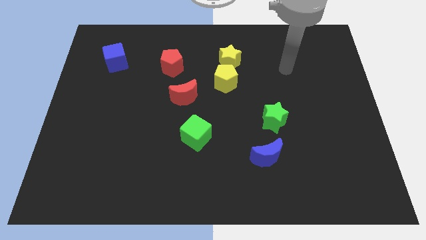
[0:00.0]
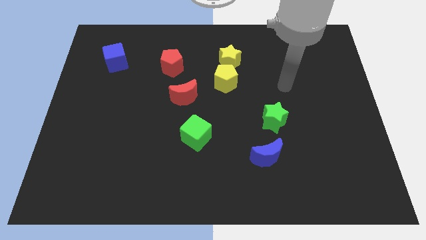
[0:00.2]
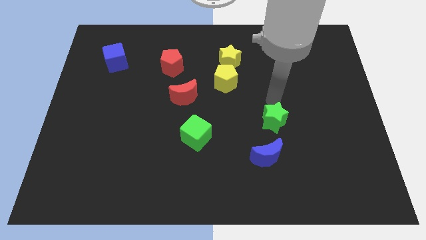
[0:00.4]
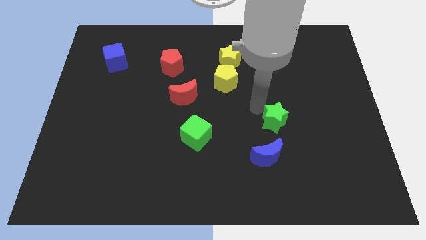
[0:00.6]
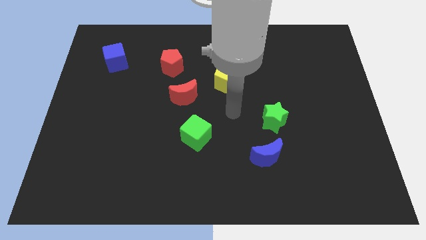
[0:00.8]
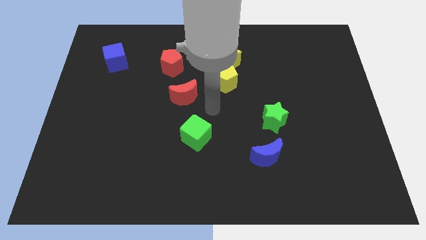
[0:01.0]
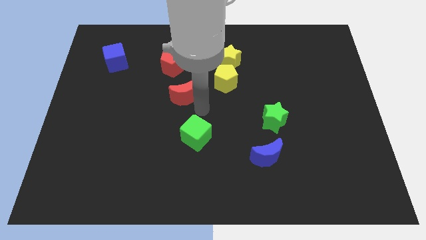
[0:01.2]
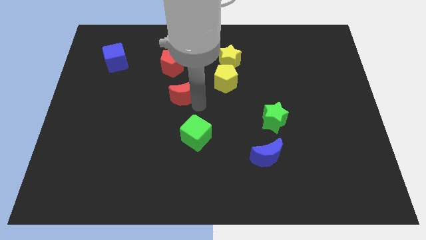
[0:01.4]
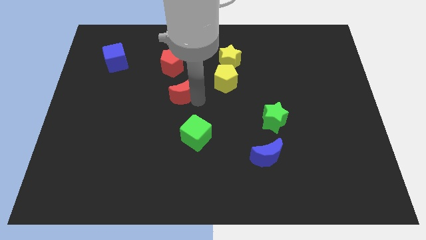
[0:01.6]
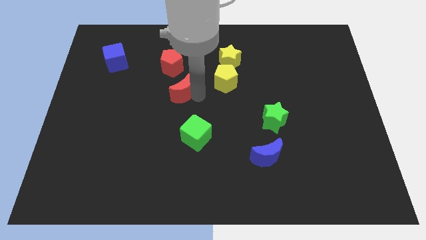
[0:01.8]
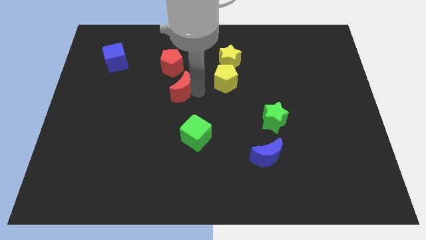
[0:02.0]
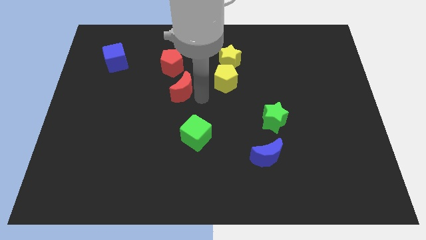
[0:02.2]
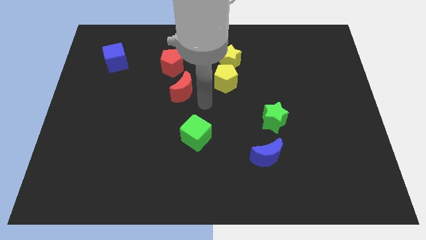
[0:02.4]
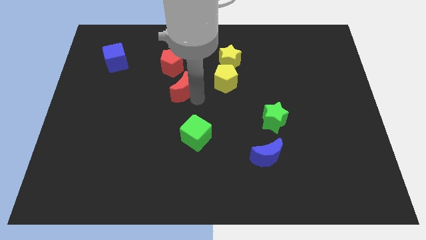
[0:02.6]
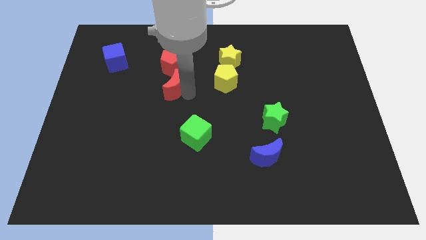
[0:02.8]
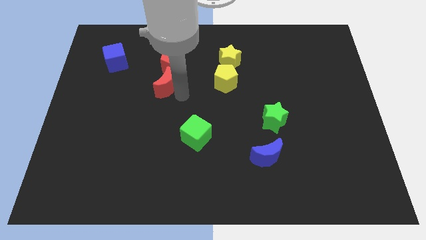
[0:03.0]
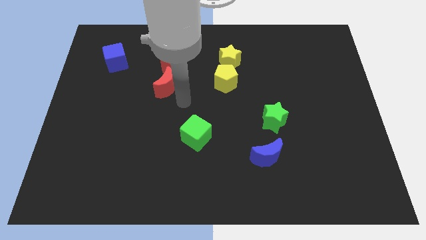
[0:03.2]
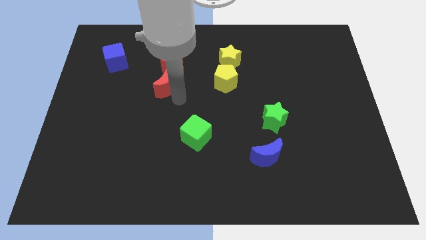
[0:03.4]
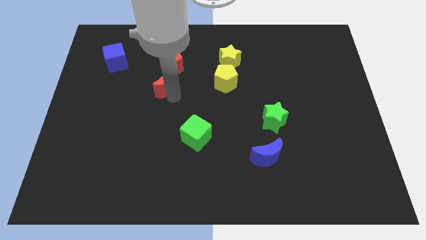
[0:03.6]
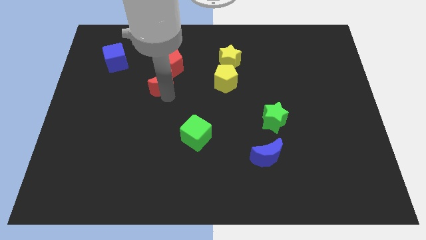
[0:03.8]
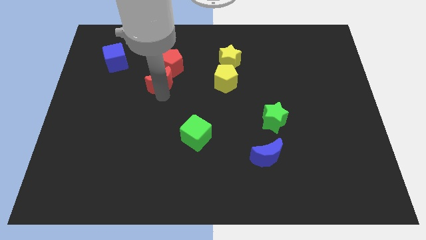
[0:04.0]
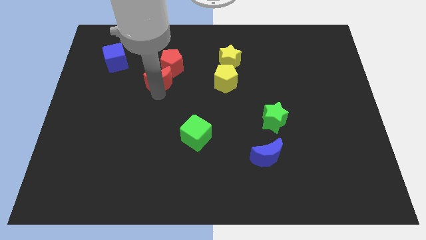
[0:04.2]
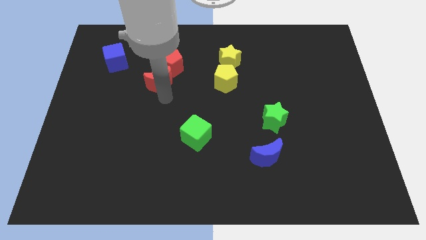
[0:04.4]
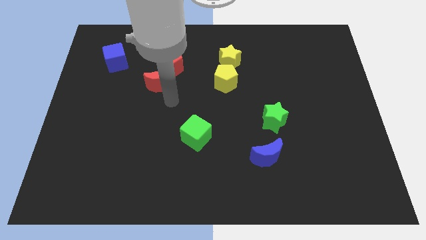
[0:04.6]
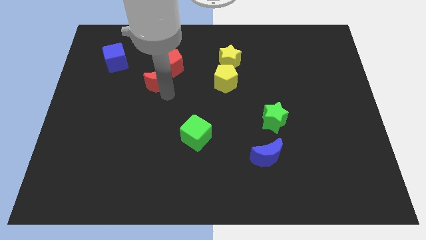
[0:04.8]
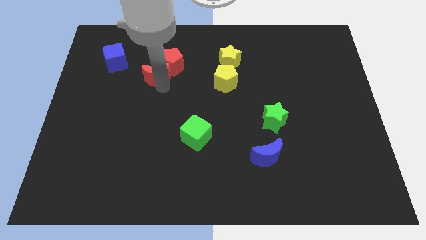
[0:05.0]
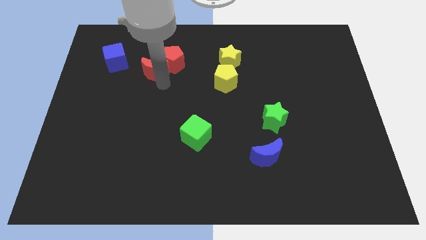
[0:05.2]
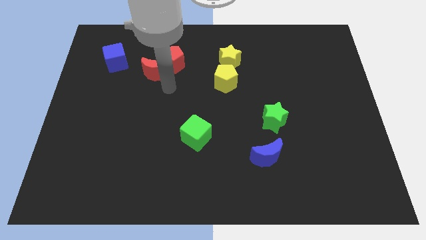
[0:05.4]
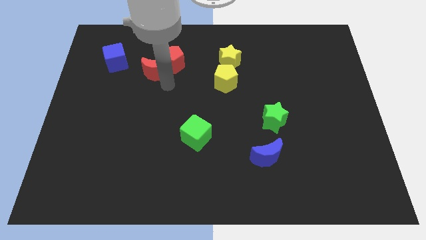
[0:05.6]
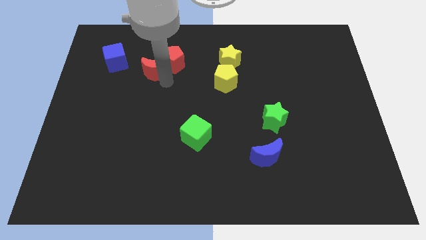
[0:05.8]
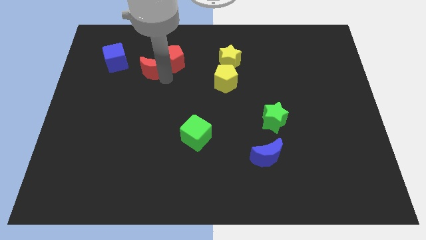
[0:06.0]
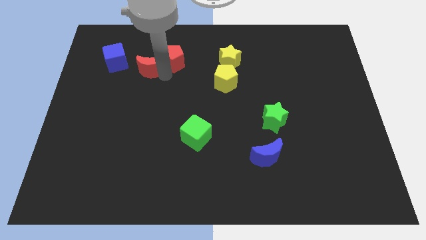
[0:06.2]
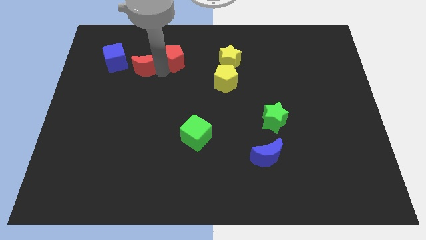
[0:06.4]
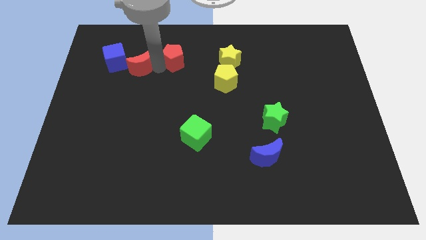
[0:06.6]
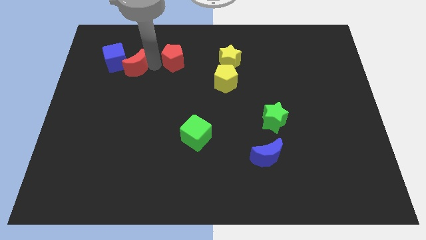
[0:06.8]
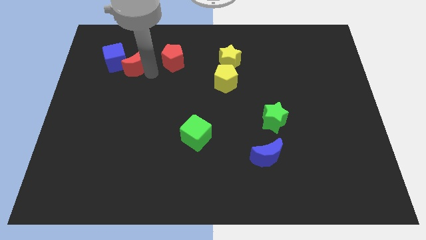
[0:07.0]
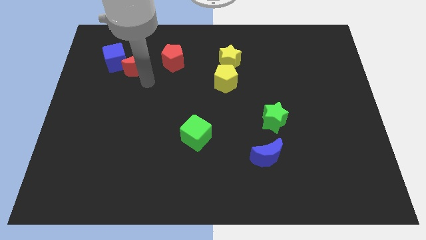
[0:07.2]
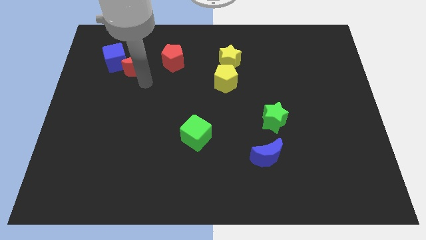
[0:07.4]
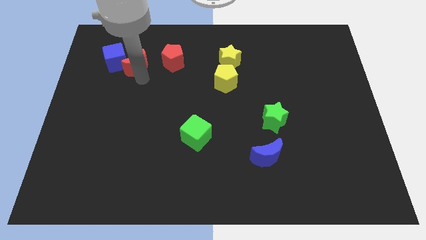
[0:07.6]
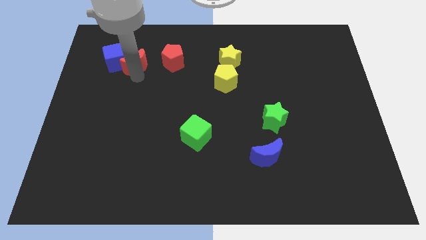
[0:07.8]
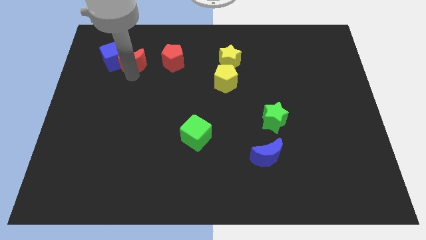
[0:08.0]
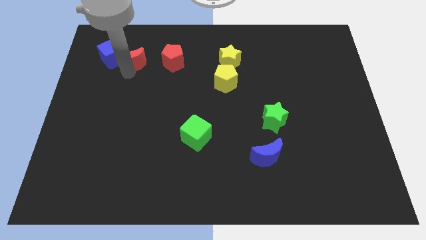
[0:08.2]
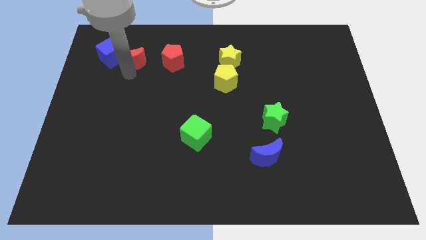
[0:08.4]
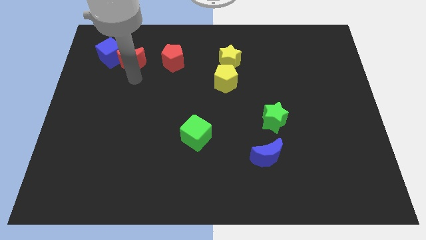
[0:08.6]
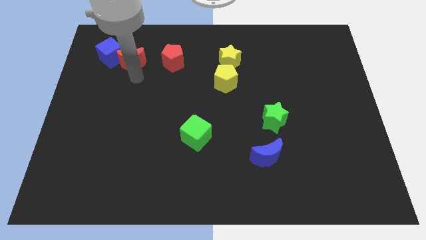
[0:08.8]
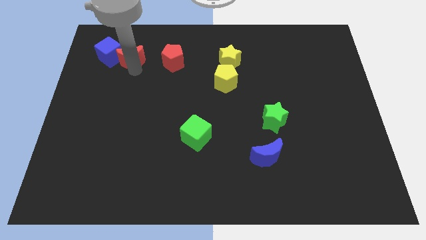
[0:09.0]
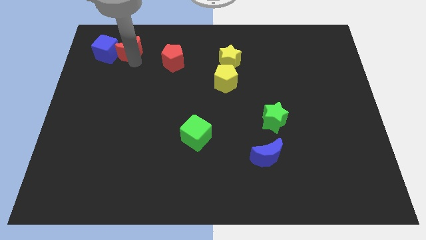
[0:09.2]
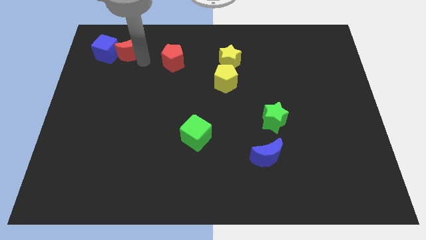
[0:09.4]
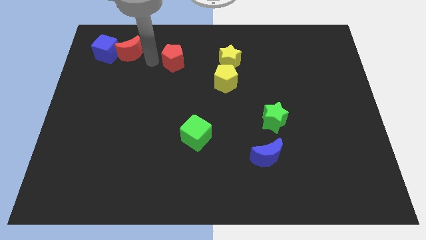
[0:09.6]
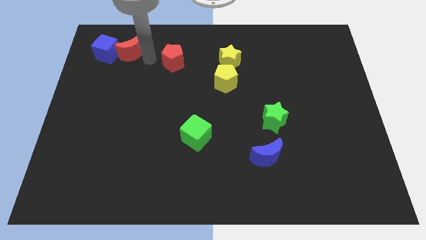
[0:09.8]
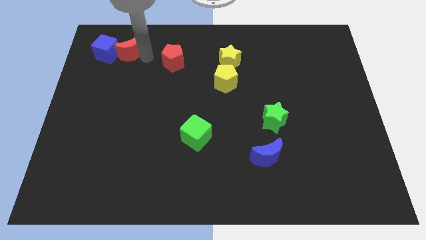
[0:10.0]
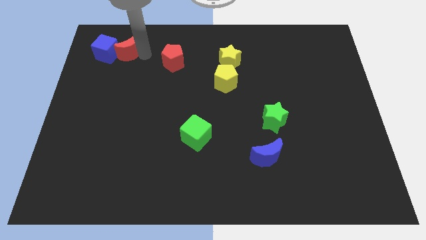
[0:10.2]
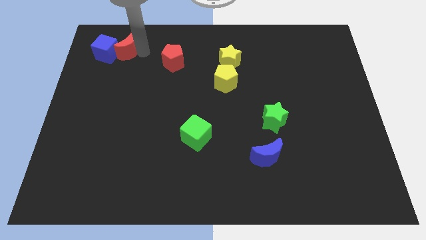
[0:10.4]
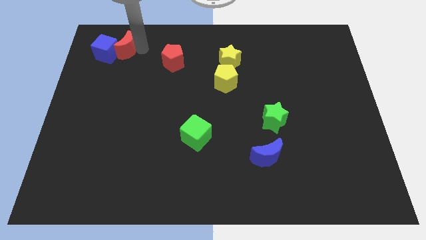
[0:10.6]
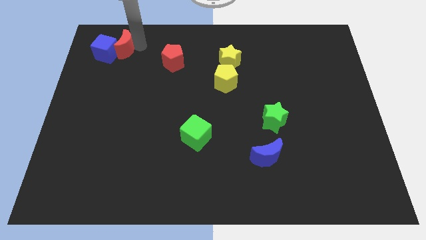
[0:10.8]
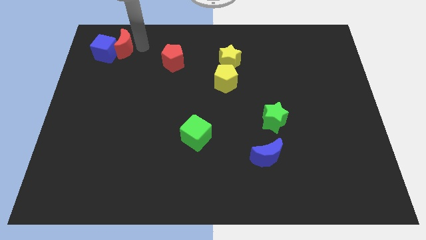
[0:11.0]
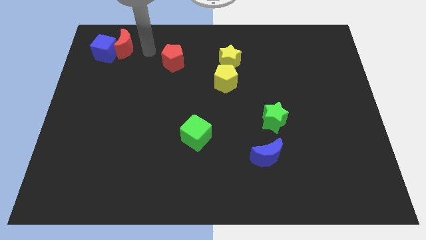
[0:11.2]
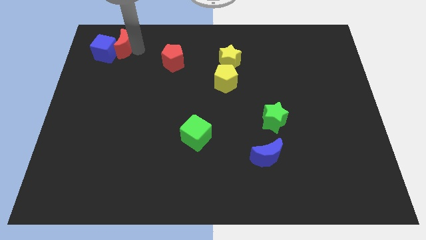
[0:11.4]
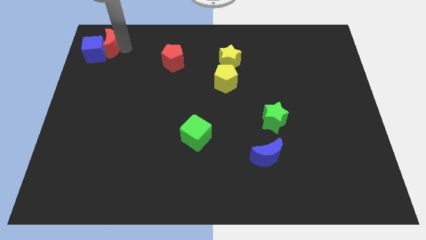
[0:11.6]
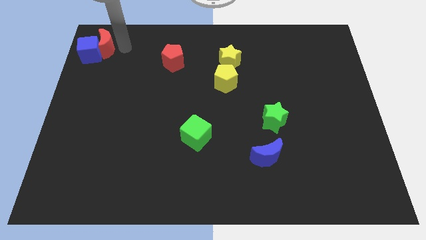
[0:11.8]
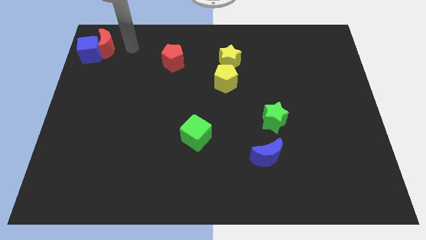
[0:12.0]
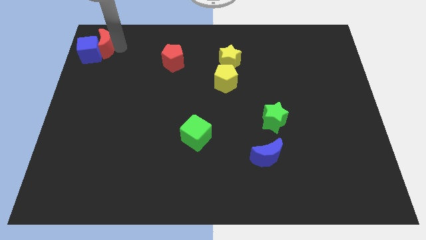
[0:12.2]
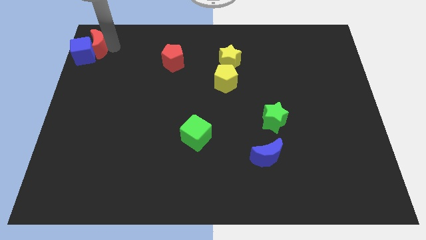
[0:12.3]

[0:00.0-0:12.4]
slide the red moon to the top left of the board

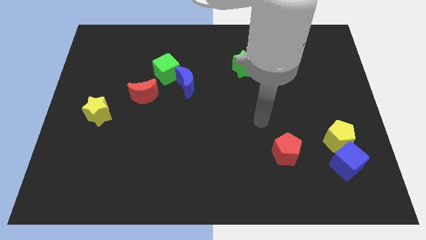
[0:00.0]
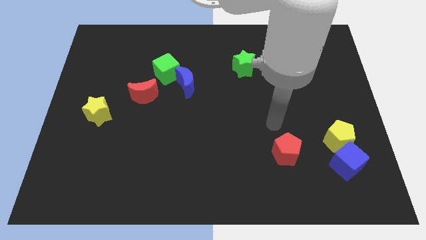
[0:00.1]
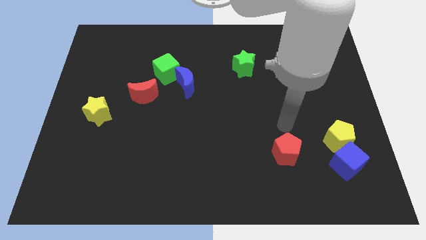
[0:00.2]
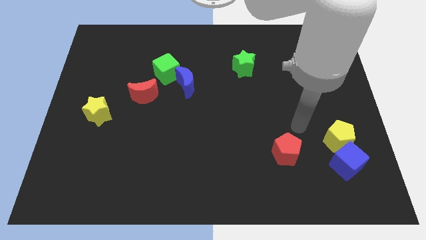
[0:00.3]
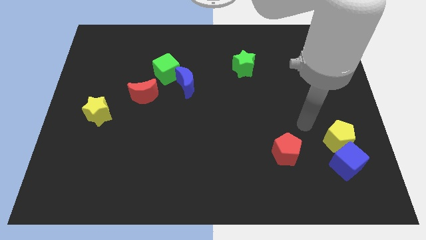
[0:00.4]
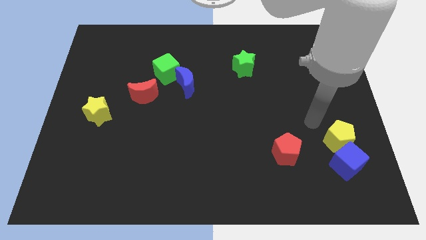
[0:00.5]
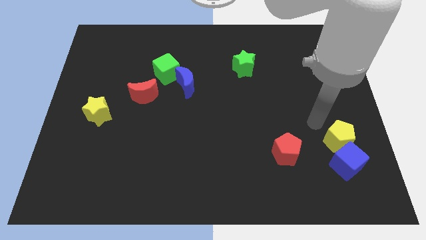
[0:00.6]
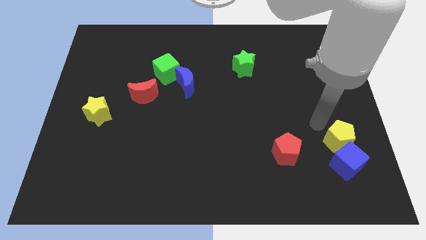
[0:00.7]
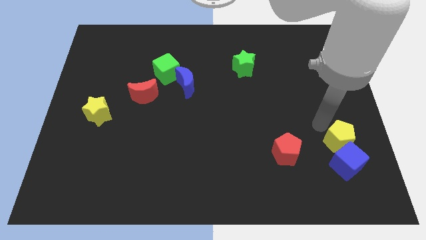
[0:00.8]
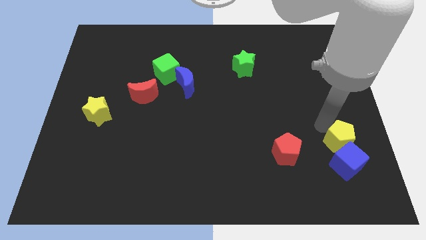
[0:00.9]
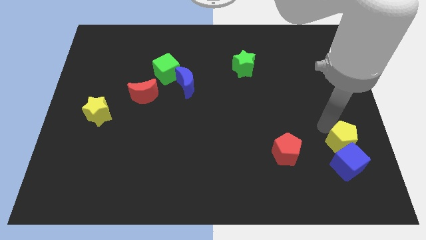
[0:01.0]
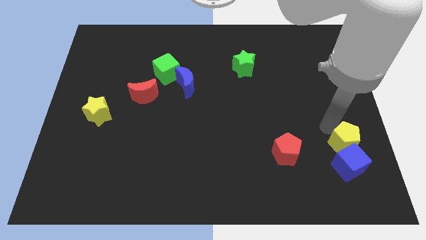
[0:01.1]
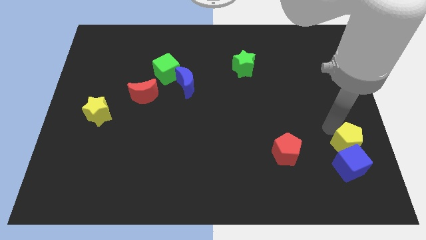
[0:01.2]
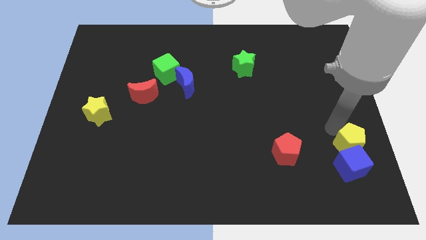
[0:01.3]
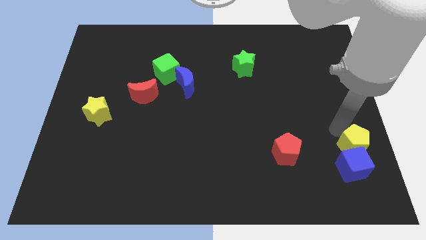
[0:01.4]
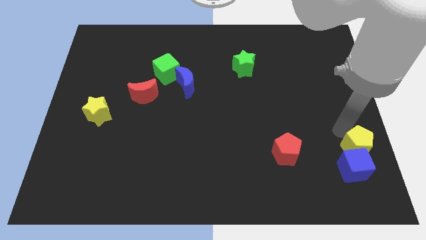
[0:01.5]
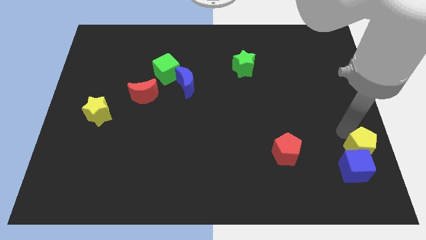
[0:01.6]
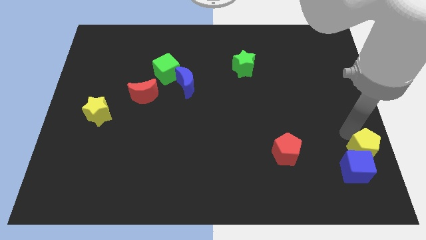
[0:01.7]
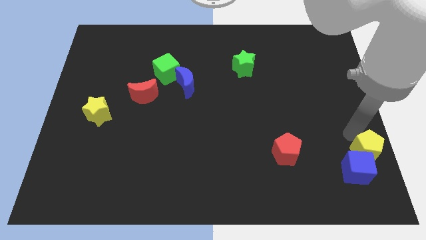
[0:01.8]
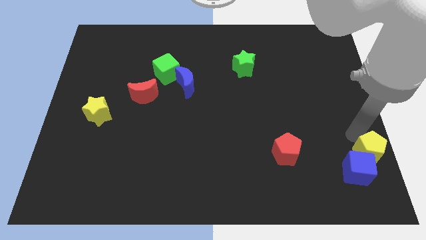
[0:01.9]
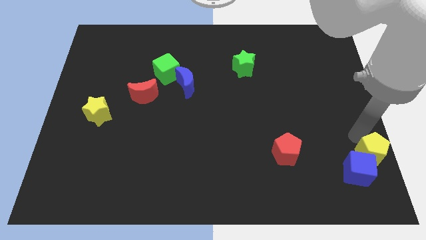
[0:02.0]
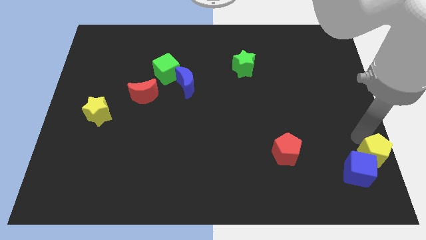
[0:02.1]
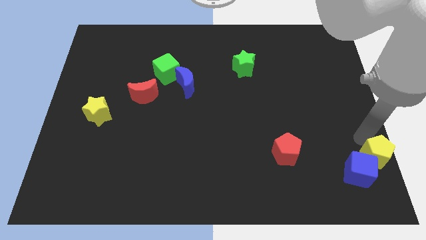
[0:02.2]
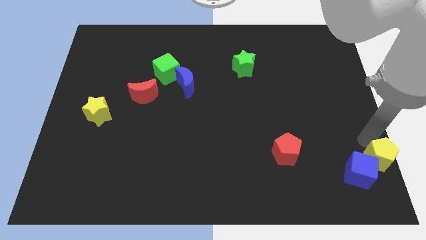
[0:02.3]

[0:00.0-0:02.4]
move the yellow pentagon to the bottom right
